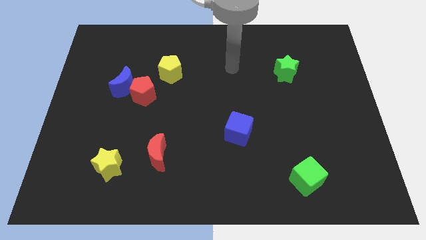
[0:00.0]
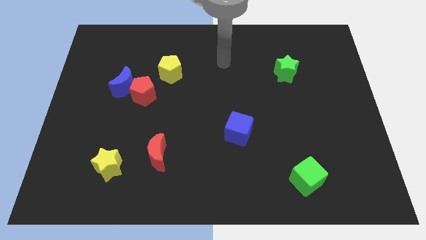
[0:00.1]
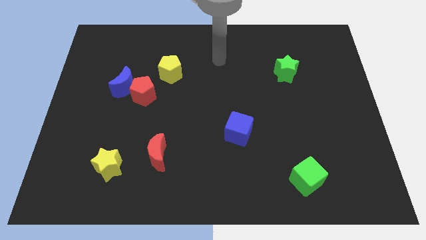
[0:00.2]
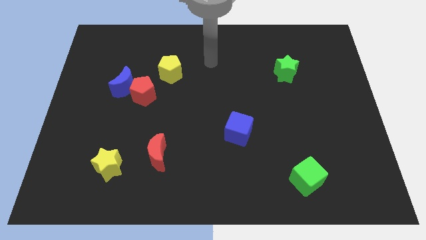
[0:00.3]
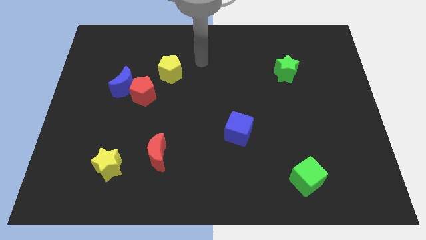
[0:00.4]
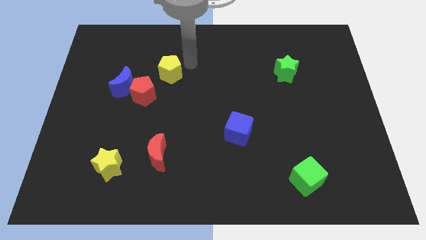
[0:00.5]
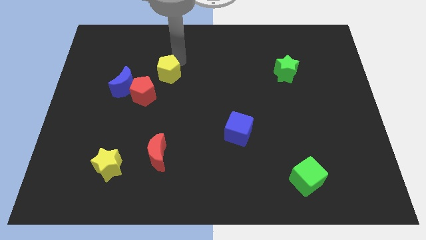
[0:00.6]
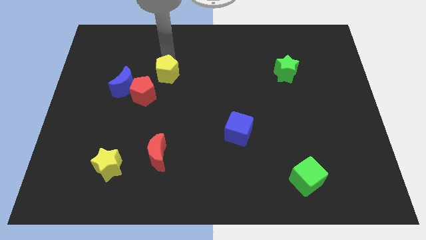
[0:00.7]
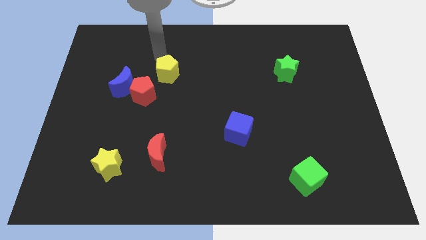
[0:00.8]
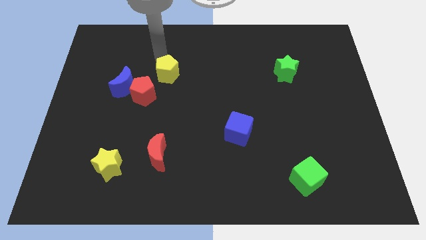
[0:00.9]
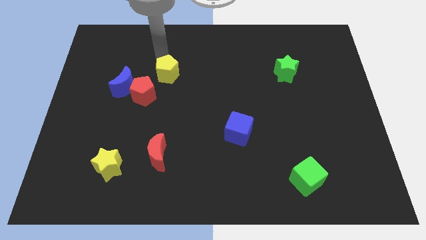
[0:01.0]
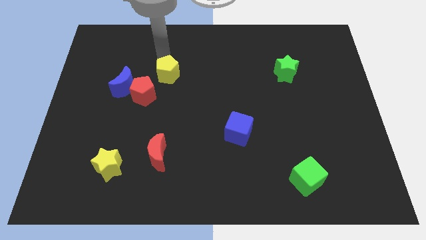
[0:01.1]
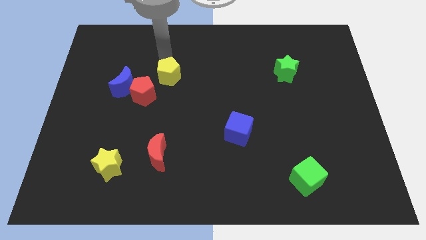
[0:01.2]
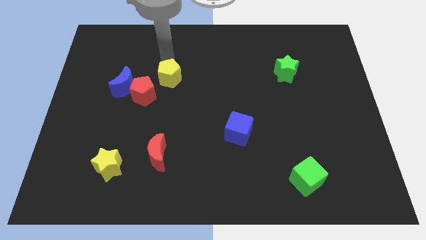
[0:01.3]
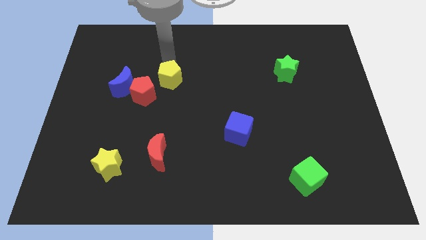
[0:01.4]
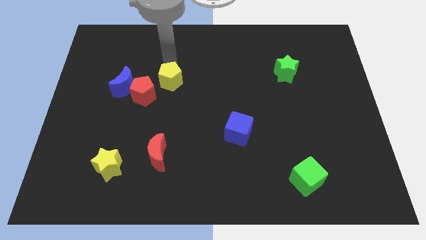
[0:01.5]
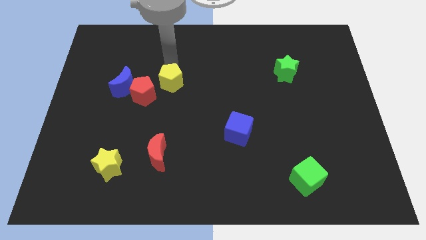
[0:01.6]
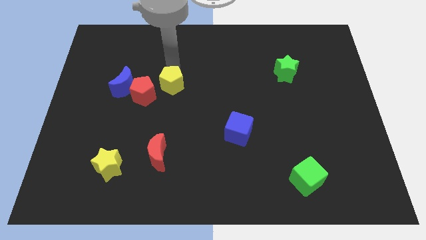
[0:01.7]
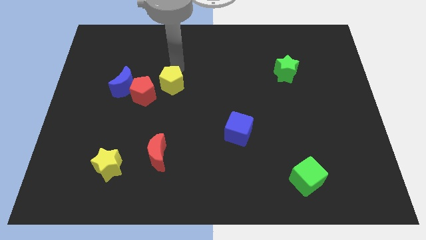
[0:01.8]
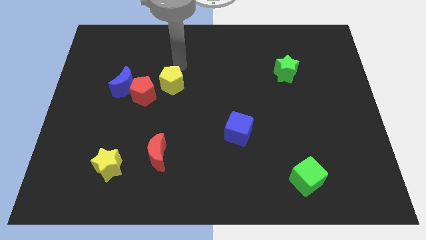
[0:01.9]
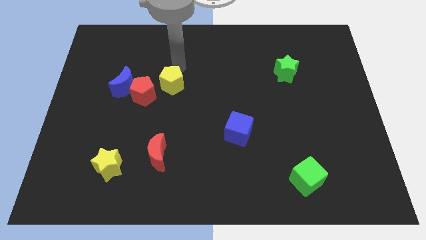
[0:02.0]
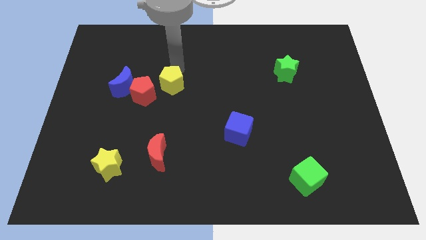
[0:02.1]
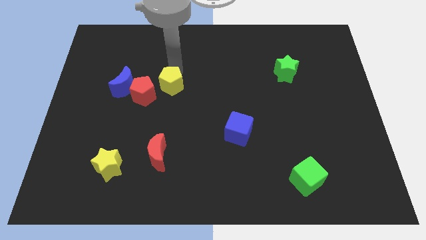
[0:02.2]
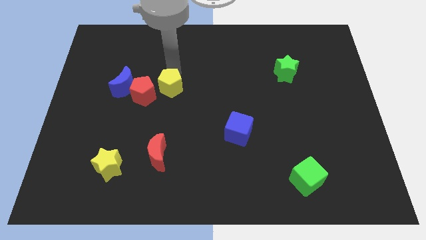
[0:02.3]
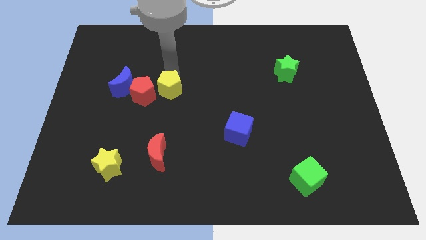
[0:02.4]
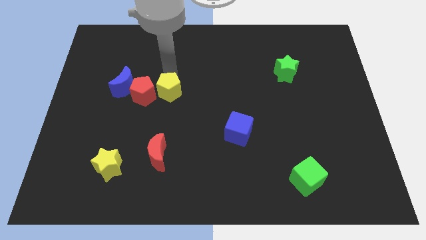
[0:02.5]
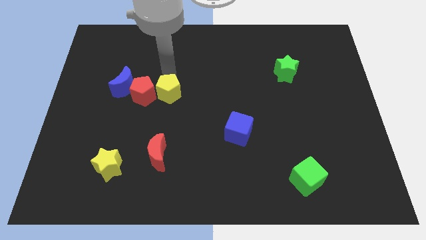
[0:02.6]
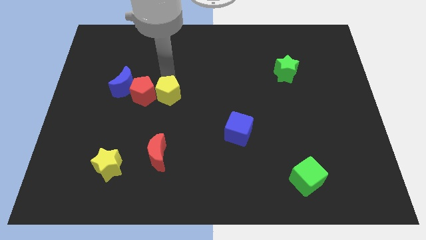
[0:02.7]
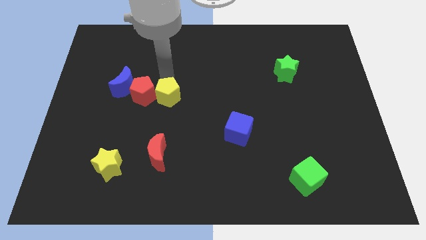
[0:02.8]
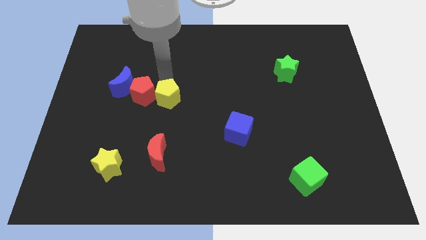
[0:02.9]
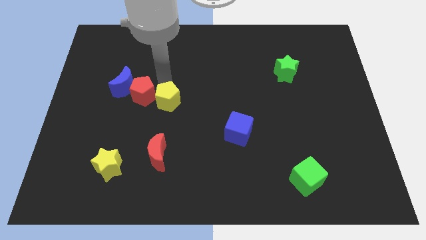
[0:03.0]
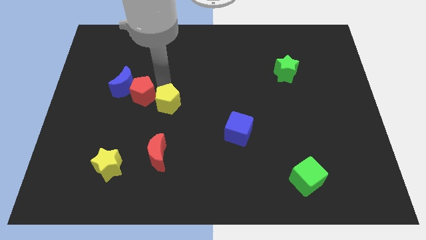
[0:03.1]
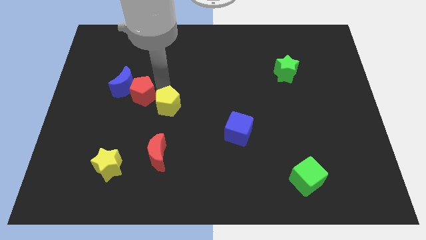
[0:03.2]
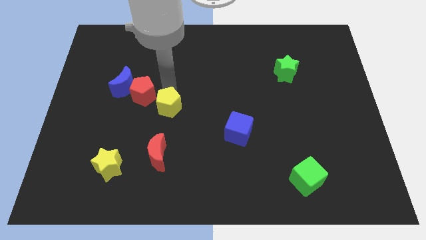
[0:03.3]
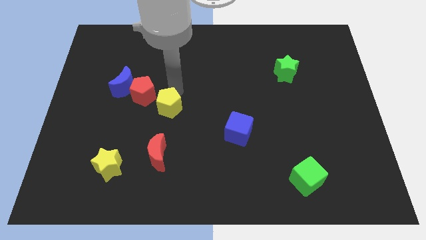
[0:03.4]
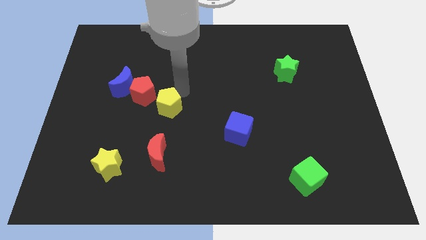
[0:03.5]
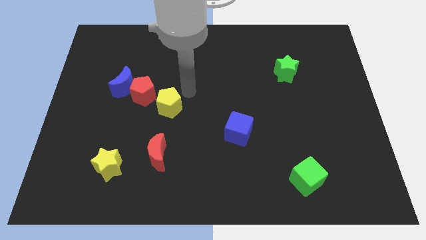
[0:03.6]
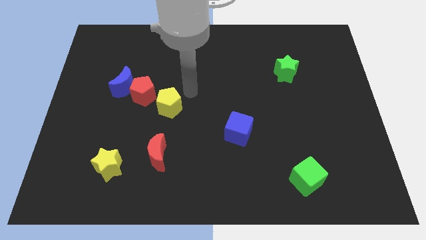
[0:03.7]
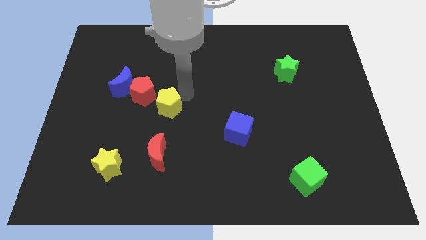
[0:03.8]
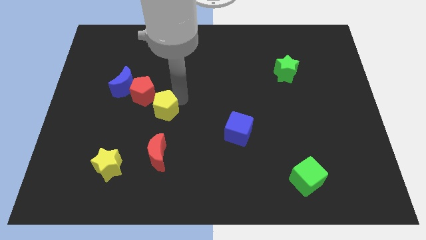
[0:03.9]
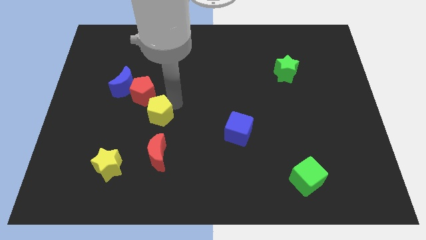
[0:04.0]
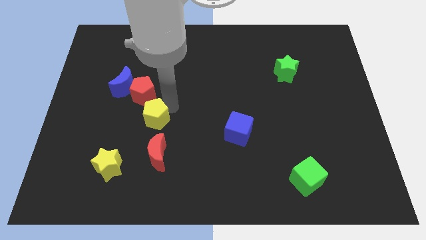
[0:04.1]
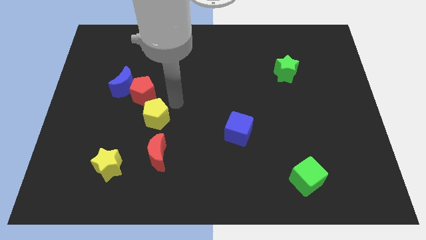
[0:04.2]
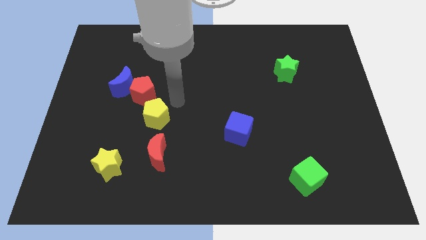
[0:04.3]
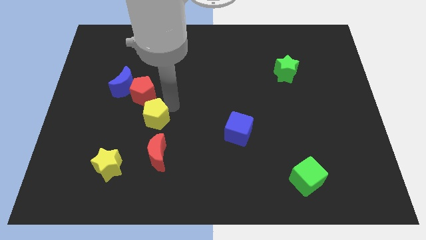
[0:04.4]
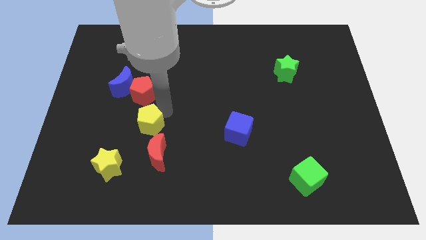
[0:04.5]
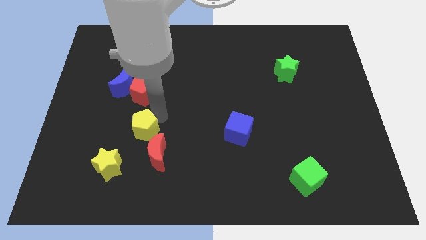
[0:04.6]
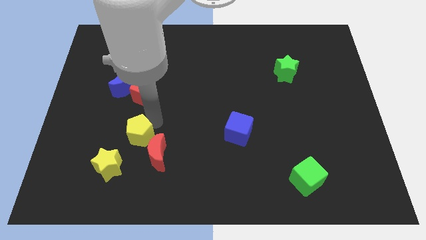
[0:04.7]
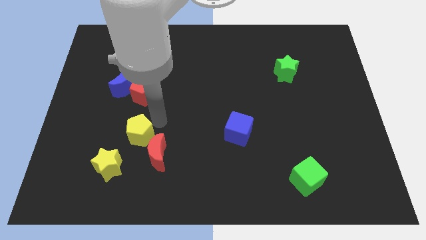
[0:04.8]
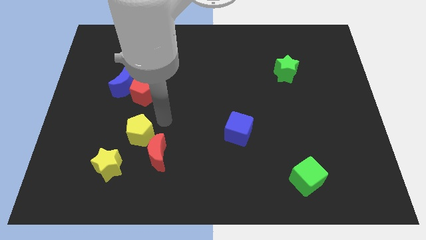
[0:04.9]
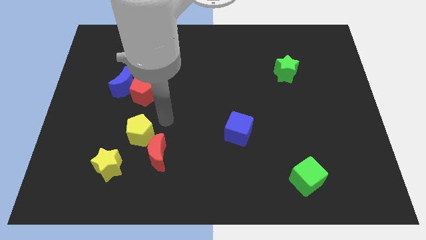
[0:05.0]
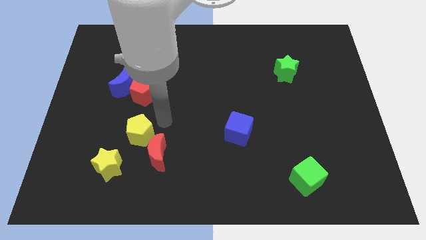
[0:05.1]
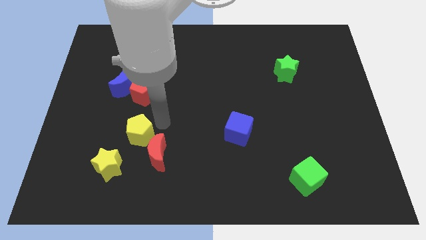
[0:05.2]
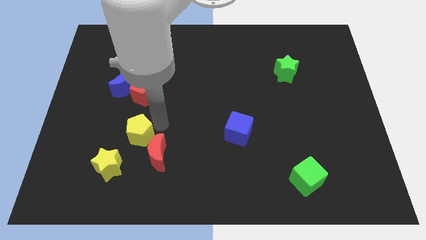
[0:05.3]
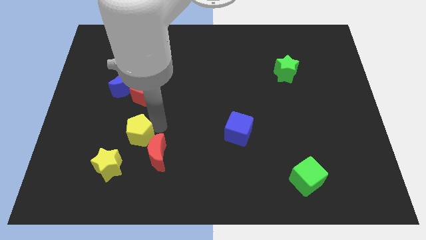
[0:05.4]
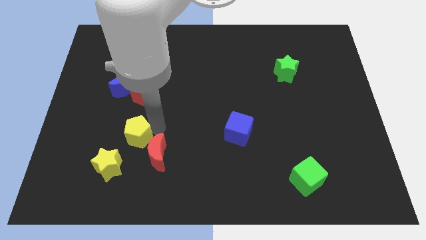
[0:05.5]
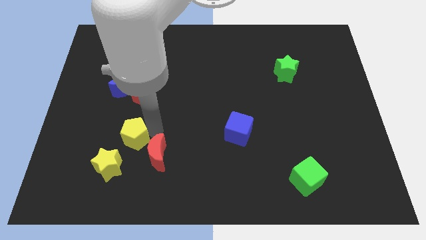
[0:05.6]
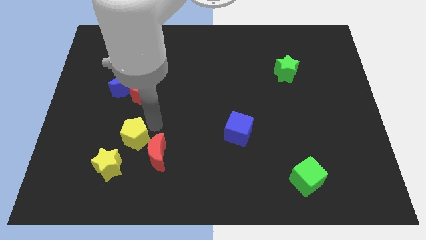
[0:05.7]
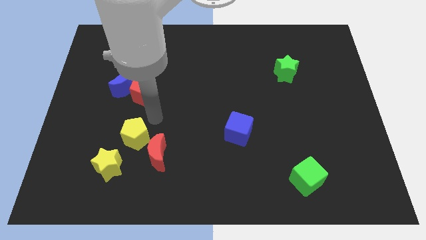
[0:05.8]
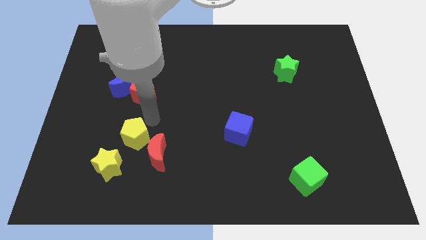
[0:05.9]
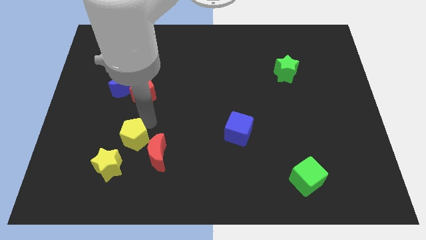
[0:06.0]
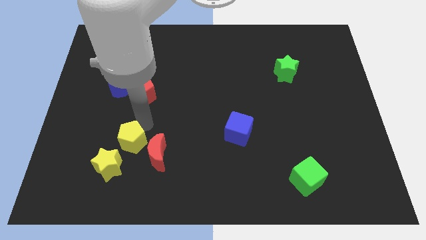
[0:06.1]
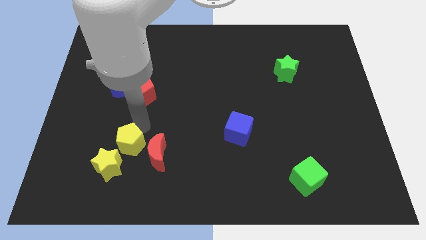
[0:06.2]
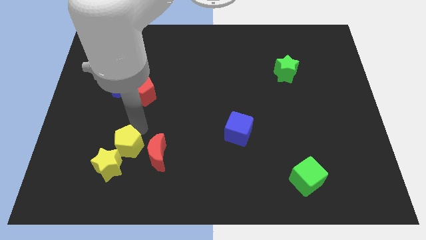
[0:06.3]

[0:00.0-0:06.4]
push the yellow pentagon next to the yellow star
